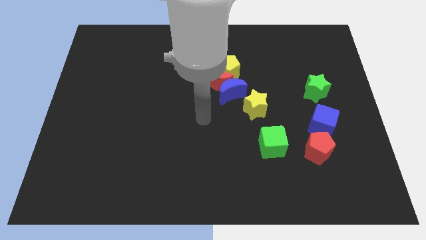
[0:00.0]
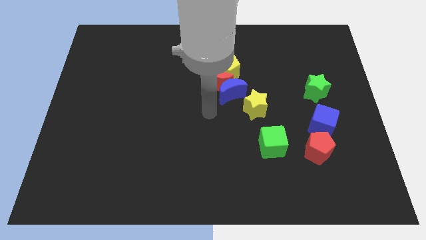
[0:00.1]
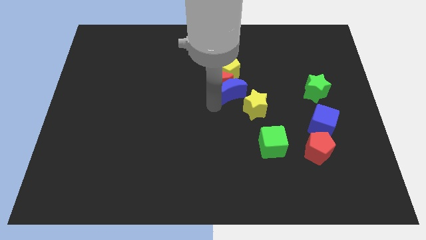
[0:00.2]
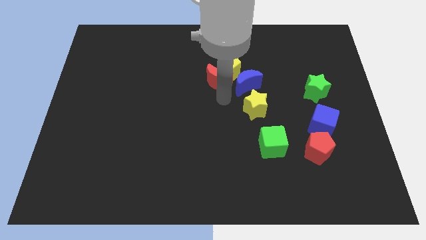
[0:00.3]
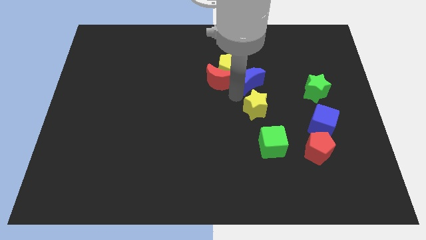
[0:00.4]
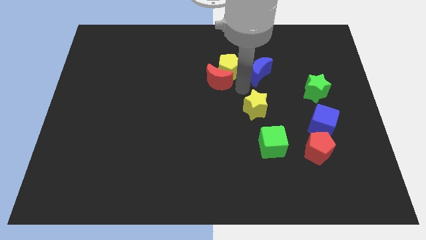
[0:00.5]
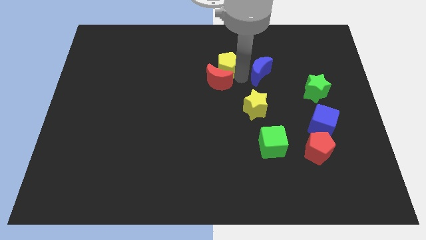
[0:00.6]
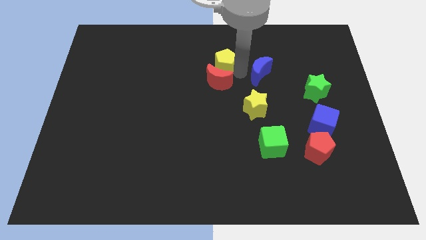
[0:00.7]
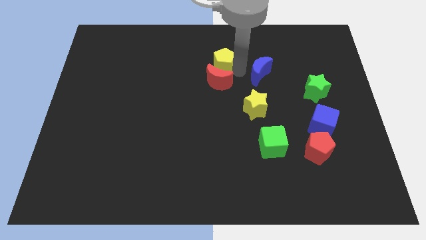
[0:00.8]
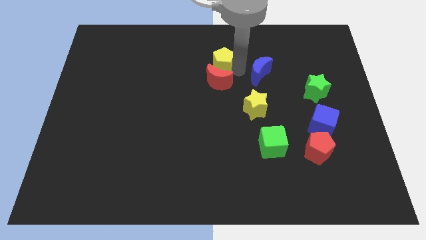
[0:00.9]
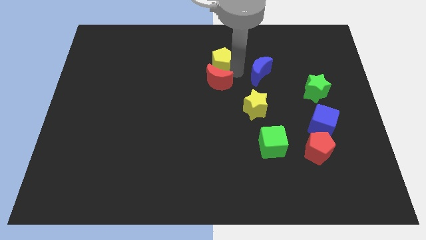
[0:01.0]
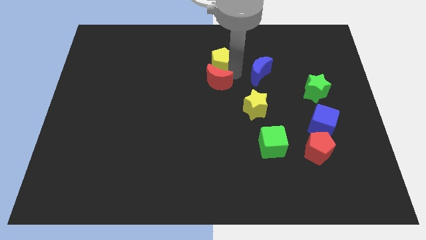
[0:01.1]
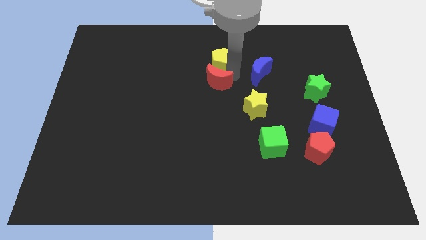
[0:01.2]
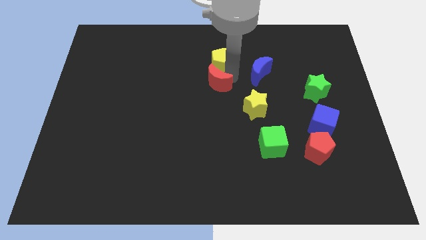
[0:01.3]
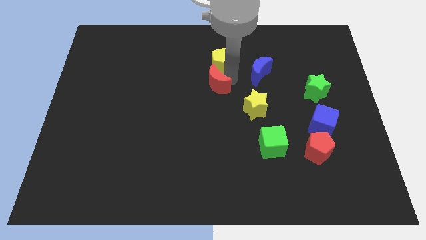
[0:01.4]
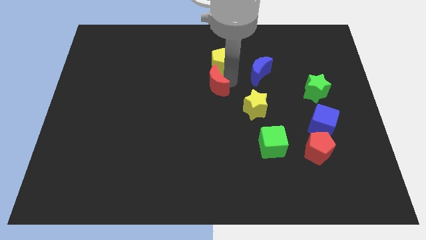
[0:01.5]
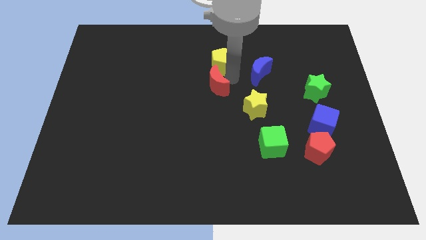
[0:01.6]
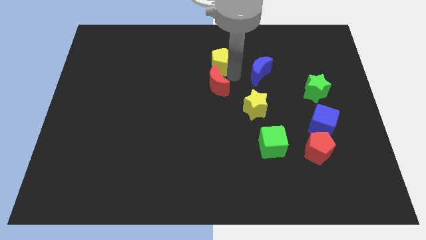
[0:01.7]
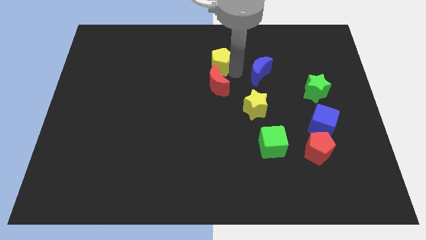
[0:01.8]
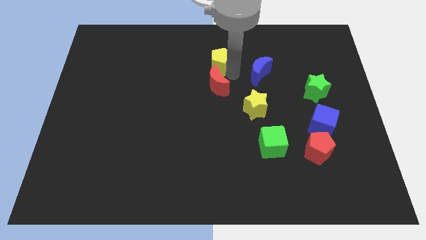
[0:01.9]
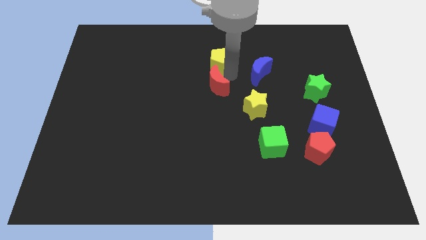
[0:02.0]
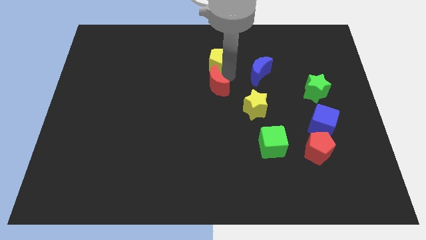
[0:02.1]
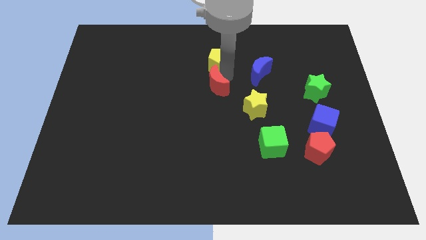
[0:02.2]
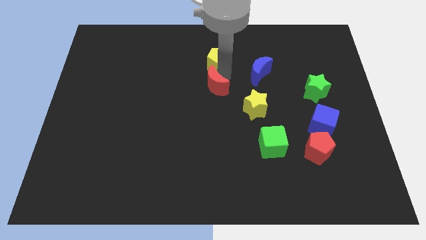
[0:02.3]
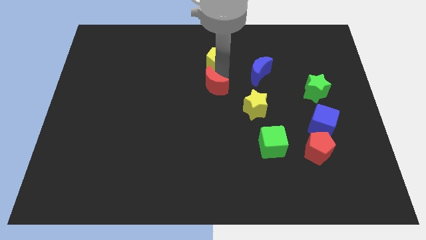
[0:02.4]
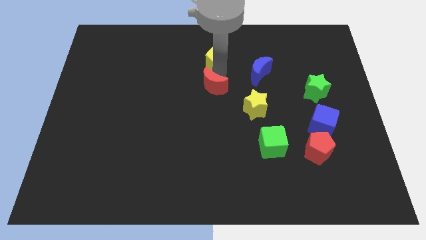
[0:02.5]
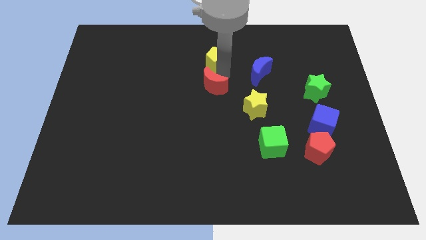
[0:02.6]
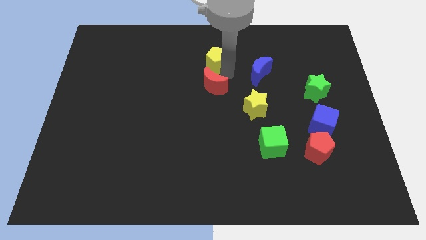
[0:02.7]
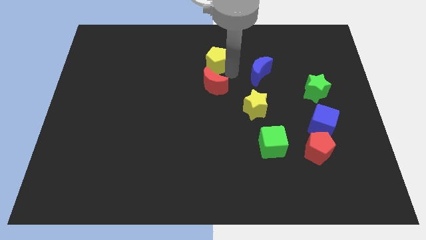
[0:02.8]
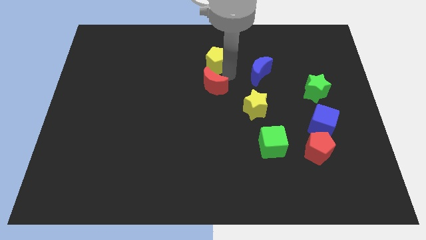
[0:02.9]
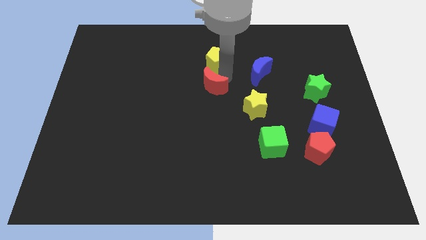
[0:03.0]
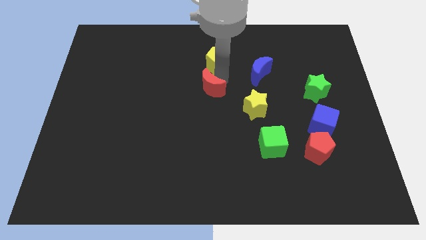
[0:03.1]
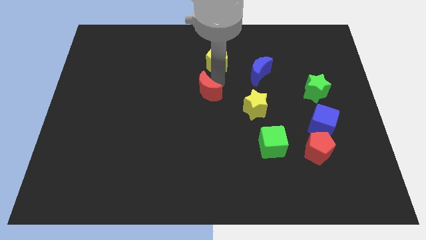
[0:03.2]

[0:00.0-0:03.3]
move the red moon away from the yellow pentagon and blue moon

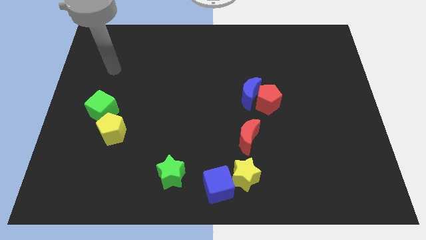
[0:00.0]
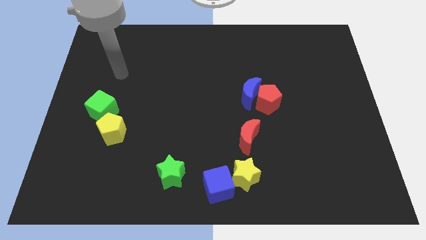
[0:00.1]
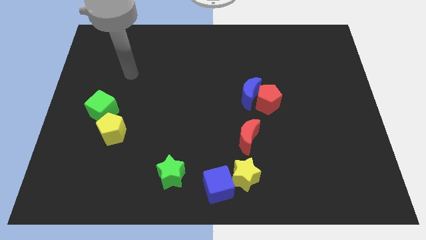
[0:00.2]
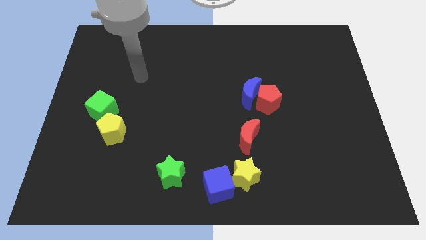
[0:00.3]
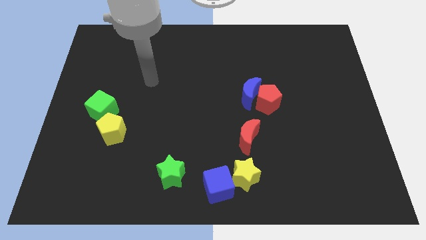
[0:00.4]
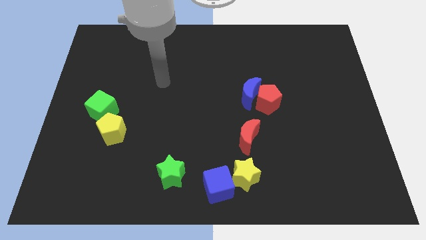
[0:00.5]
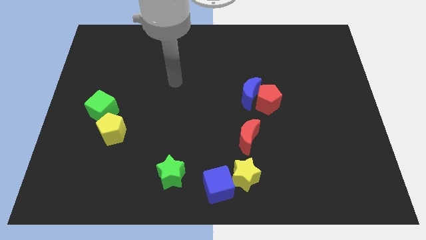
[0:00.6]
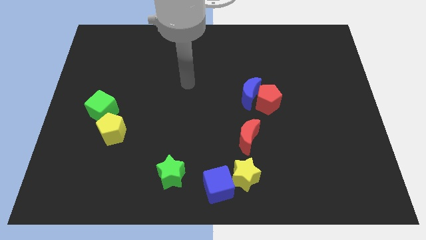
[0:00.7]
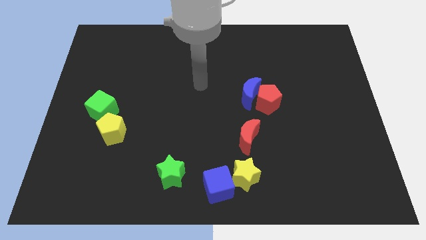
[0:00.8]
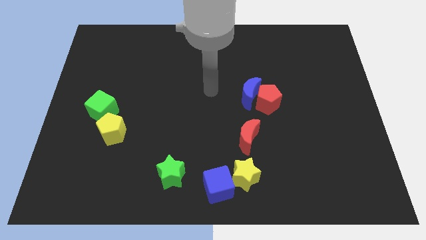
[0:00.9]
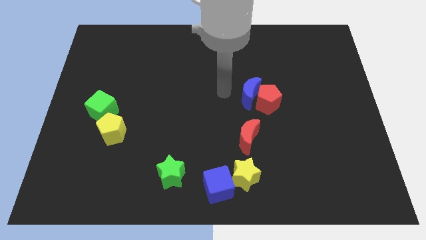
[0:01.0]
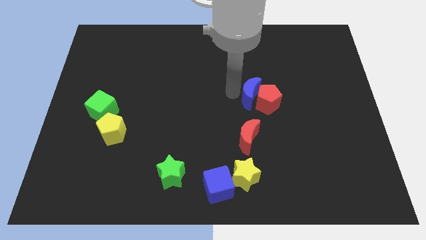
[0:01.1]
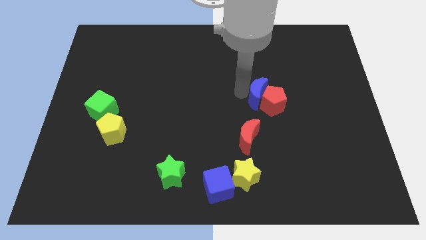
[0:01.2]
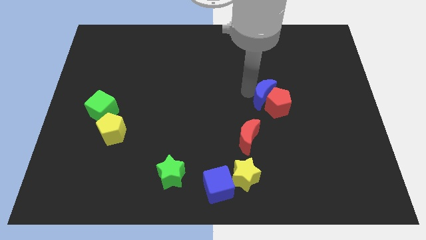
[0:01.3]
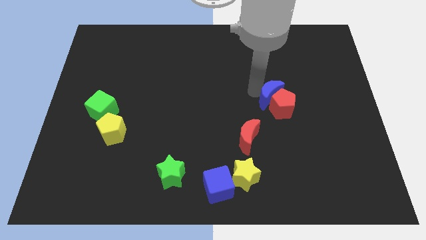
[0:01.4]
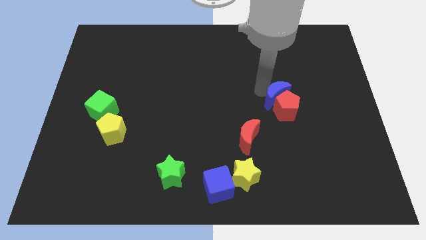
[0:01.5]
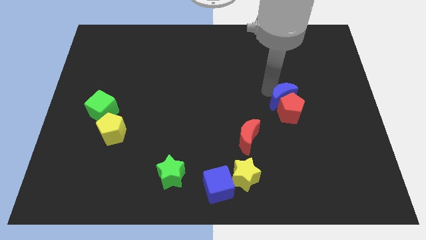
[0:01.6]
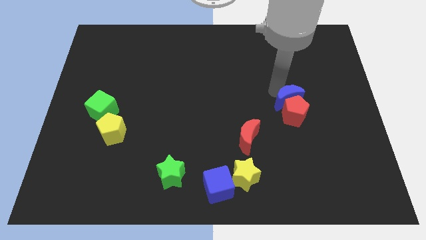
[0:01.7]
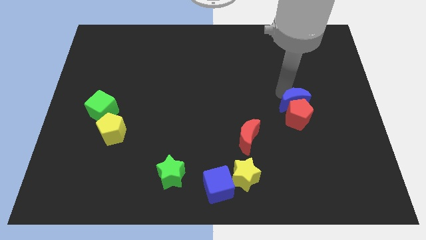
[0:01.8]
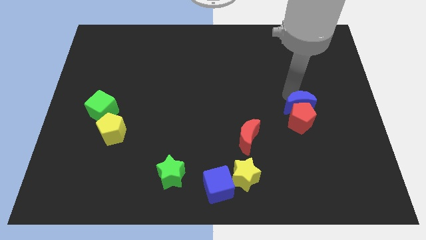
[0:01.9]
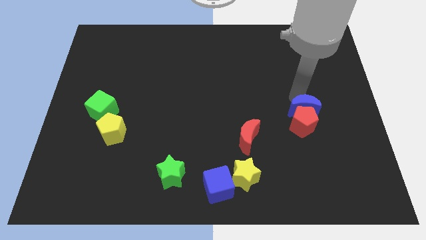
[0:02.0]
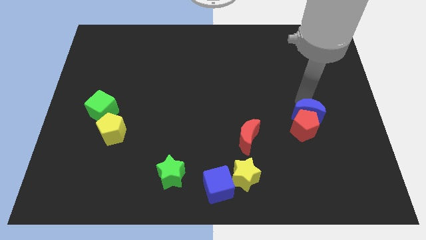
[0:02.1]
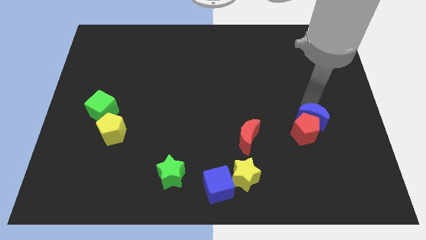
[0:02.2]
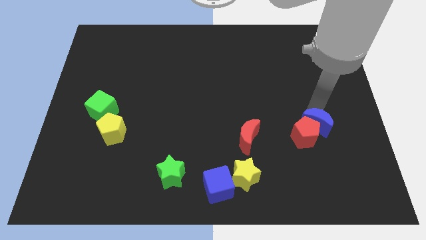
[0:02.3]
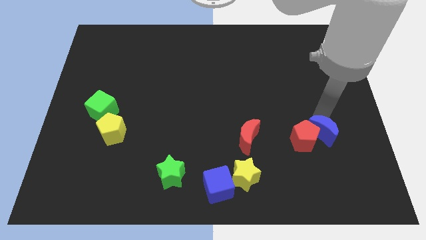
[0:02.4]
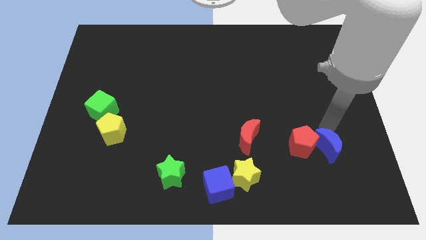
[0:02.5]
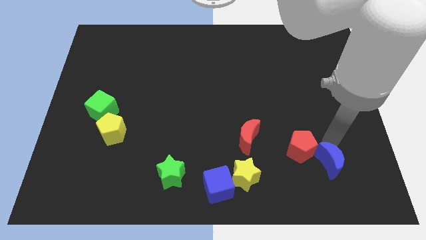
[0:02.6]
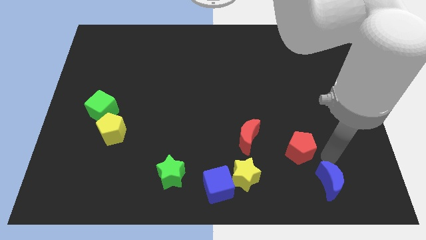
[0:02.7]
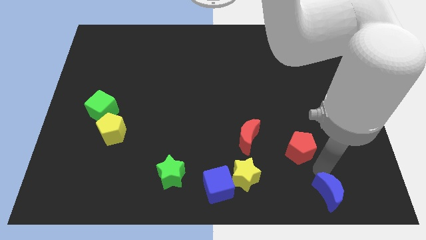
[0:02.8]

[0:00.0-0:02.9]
move the red pentagon away from the blue moon

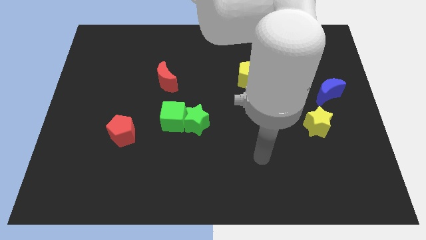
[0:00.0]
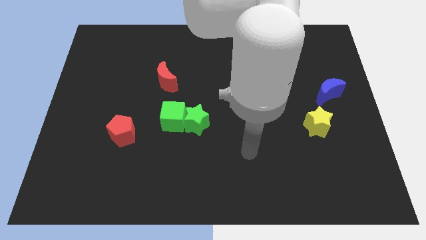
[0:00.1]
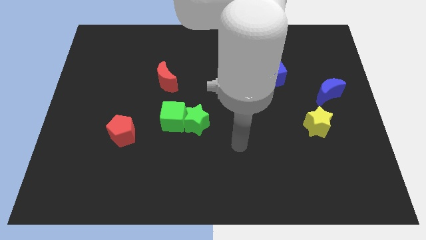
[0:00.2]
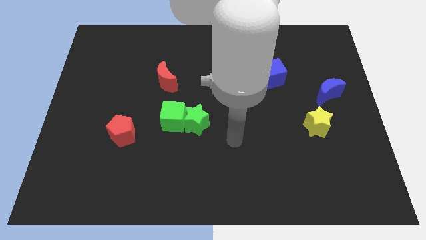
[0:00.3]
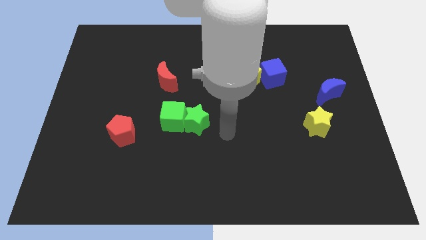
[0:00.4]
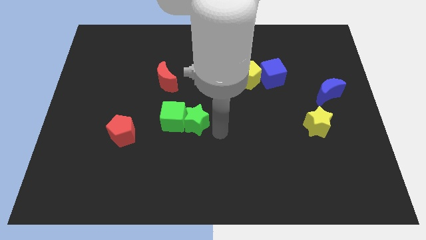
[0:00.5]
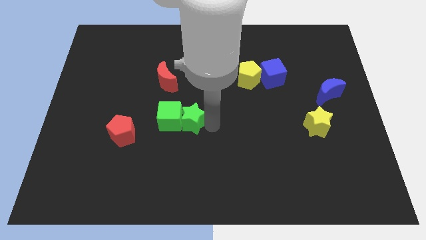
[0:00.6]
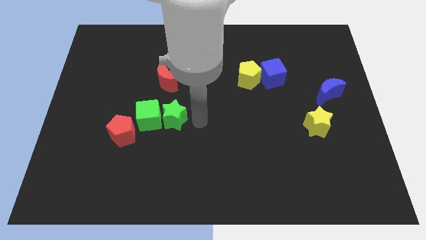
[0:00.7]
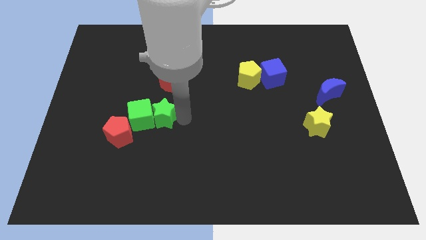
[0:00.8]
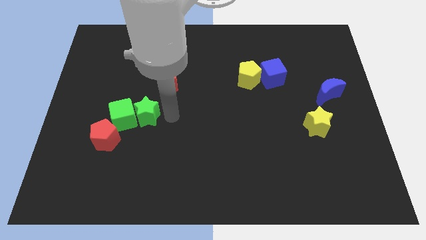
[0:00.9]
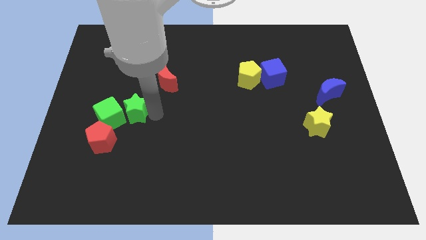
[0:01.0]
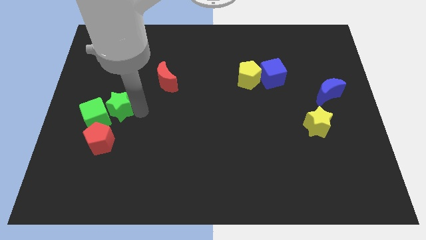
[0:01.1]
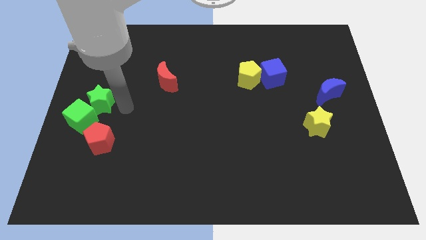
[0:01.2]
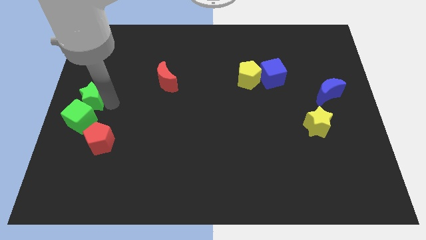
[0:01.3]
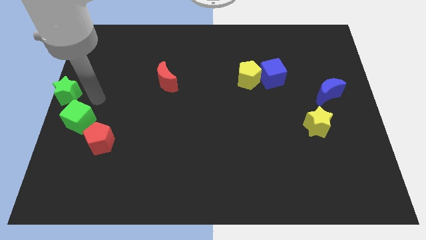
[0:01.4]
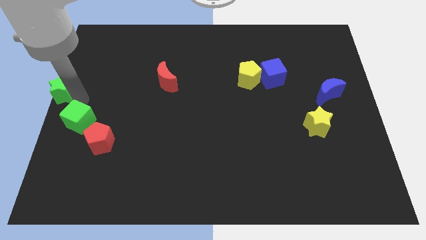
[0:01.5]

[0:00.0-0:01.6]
pull the green cube apart from the green star

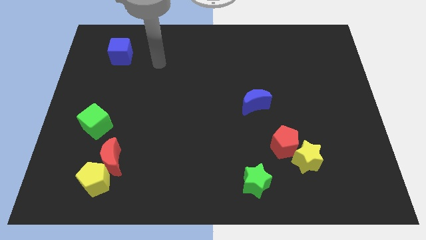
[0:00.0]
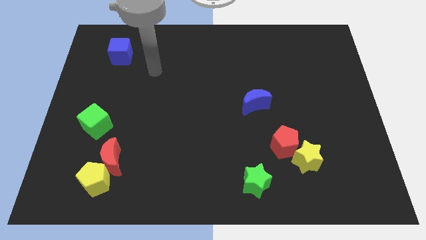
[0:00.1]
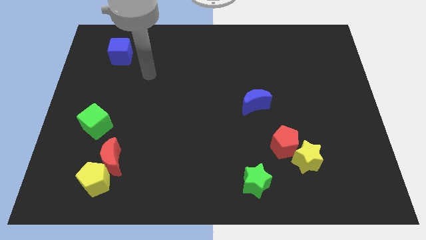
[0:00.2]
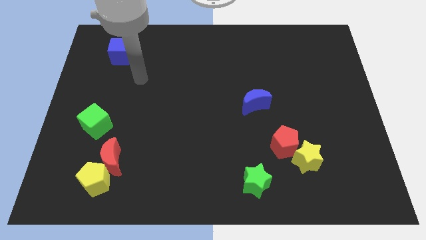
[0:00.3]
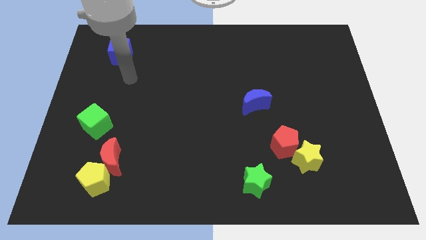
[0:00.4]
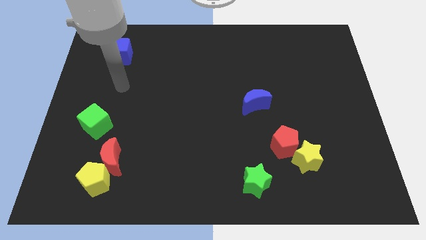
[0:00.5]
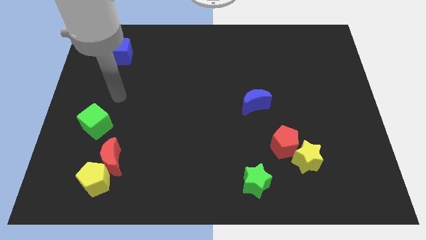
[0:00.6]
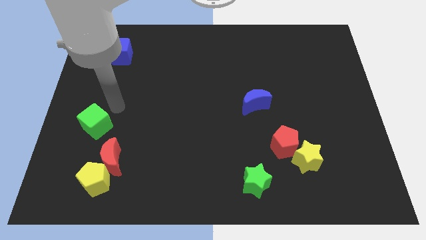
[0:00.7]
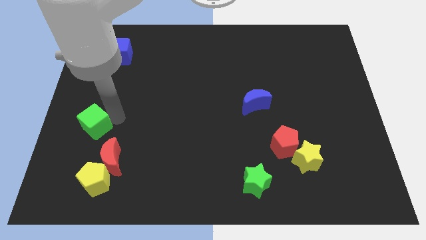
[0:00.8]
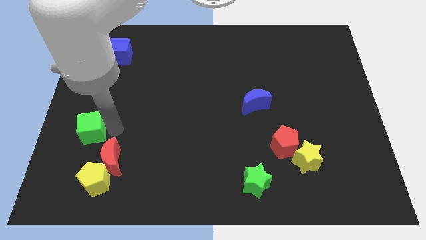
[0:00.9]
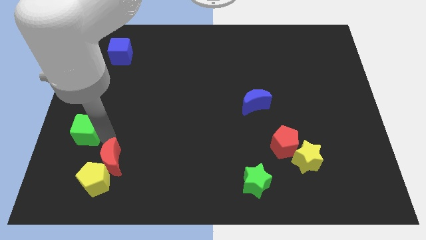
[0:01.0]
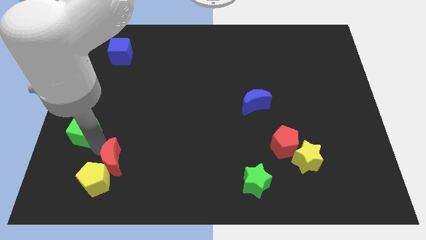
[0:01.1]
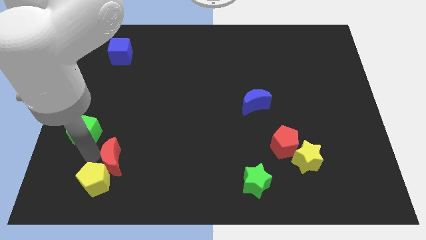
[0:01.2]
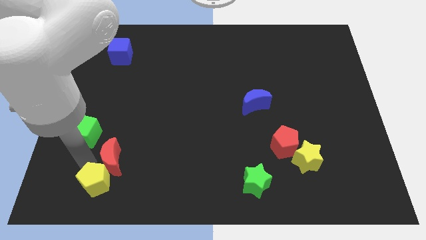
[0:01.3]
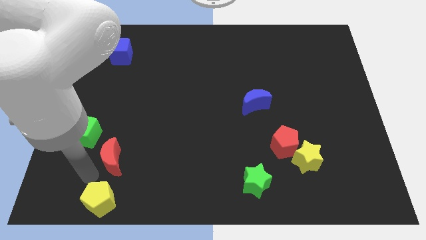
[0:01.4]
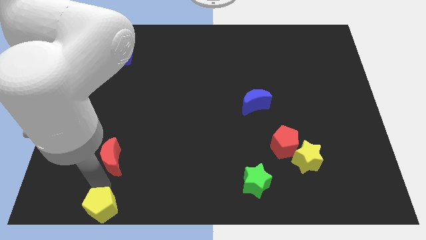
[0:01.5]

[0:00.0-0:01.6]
move the red moon away from the yellow pentagon

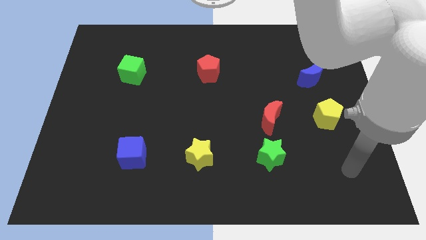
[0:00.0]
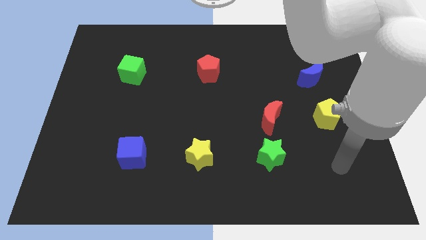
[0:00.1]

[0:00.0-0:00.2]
separate the red moon from the green star
